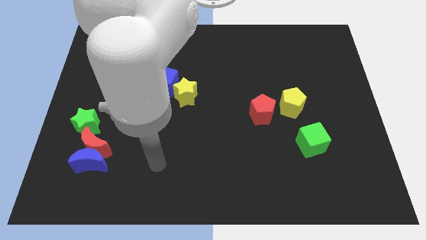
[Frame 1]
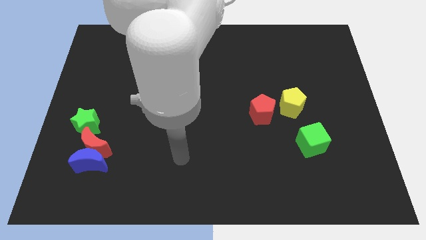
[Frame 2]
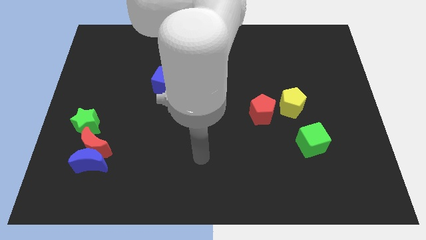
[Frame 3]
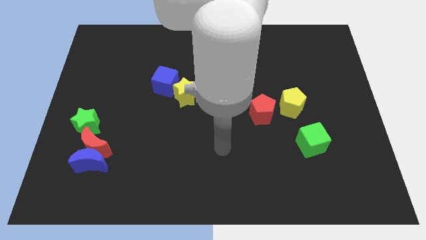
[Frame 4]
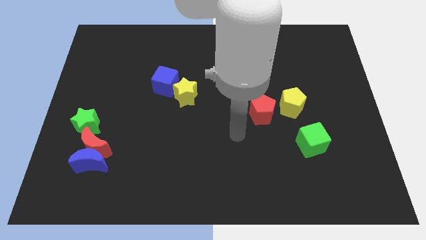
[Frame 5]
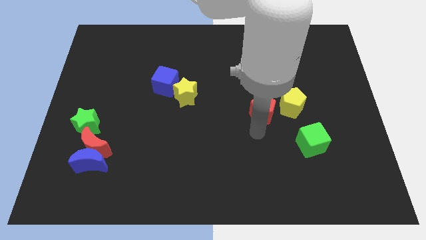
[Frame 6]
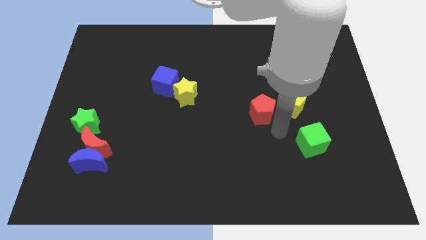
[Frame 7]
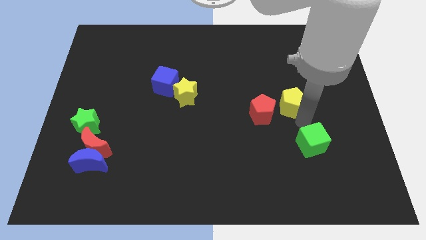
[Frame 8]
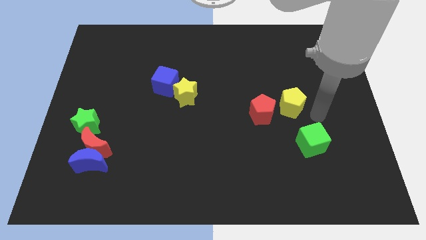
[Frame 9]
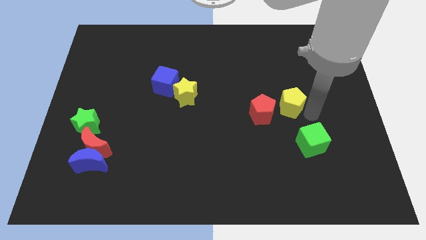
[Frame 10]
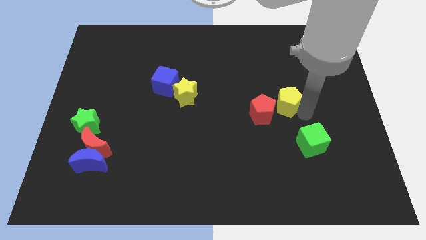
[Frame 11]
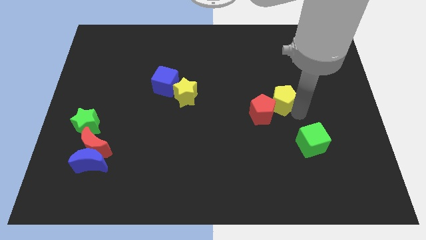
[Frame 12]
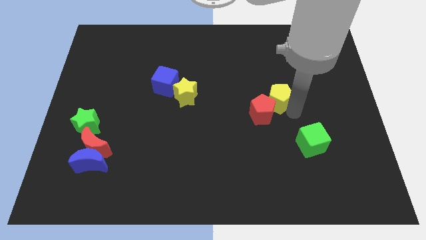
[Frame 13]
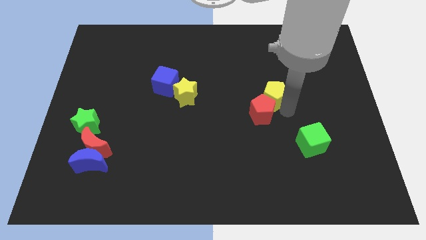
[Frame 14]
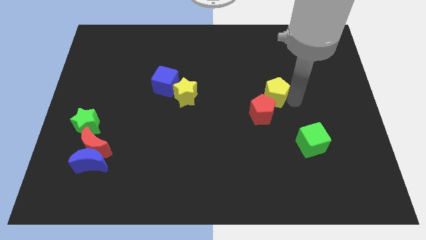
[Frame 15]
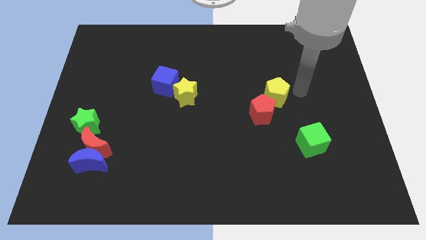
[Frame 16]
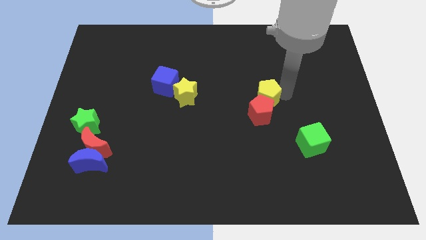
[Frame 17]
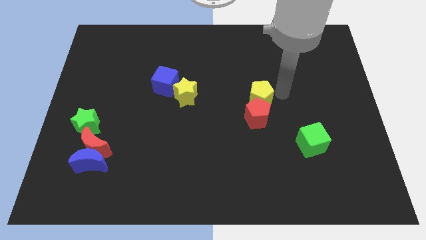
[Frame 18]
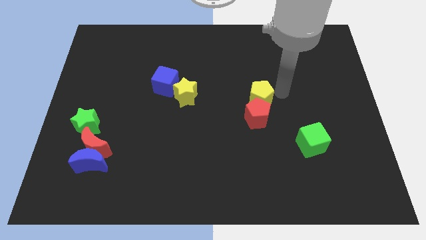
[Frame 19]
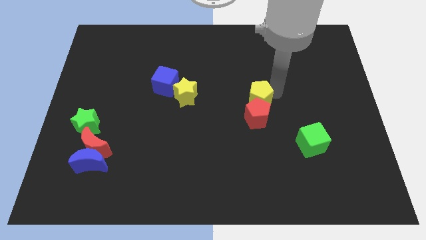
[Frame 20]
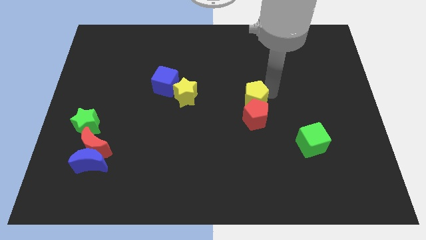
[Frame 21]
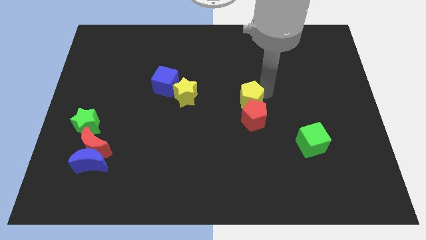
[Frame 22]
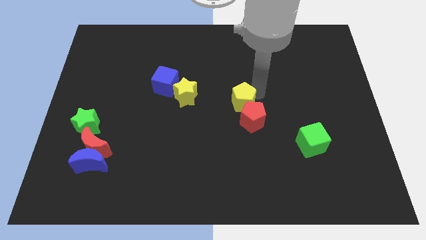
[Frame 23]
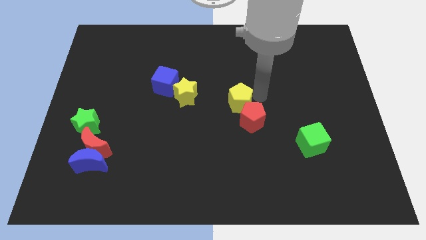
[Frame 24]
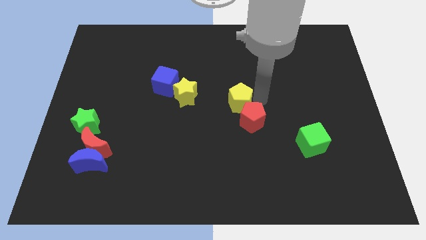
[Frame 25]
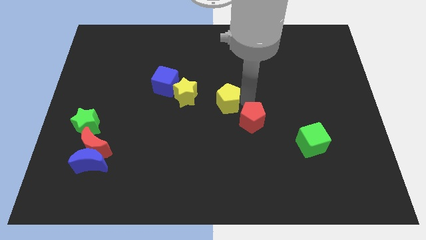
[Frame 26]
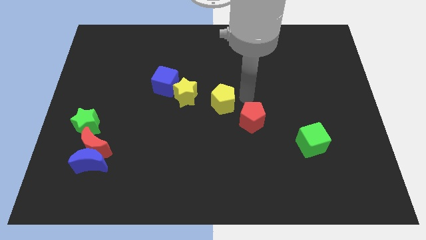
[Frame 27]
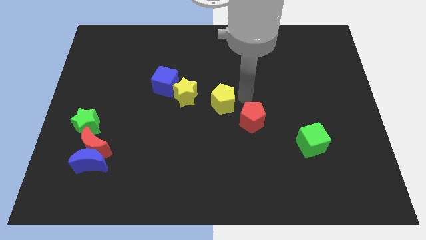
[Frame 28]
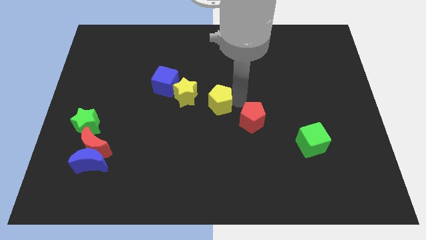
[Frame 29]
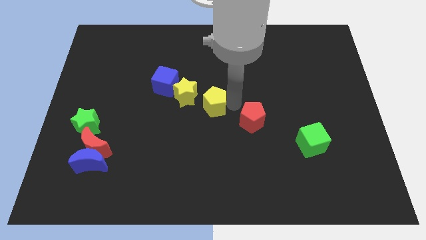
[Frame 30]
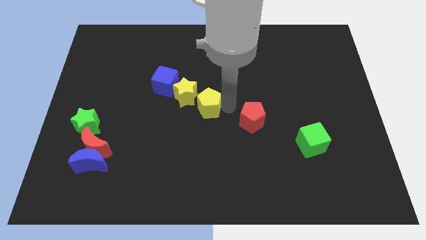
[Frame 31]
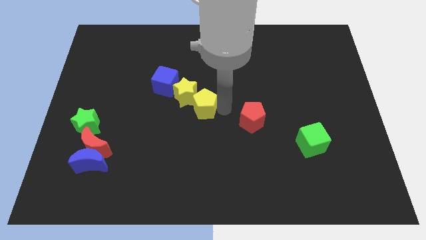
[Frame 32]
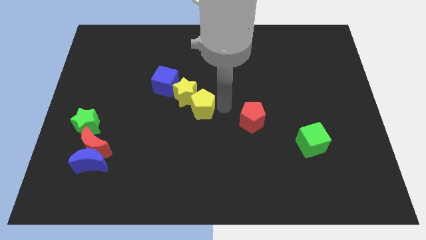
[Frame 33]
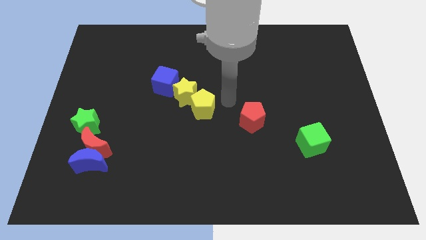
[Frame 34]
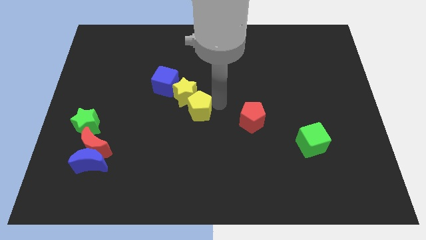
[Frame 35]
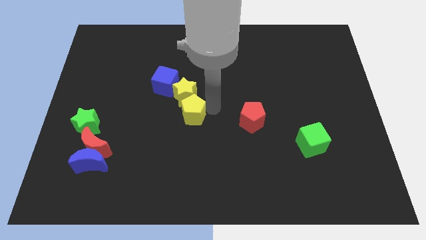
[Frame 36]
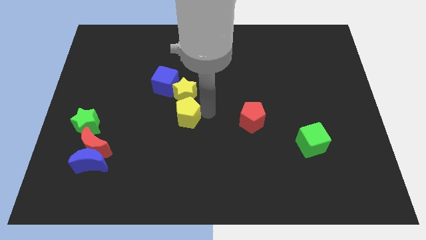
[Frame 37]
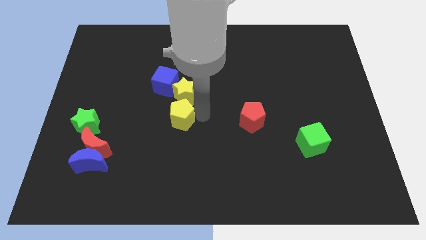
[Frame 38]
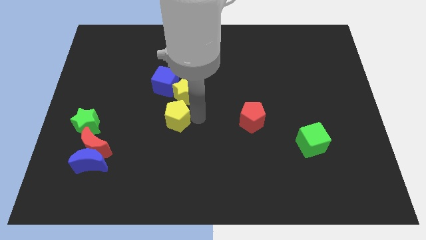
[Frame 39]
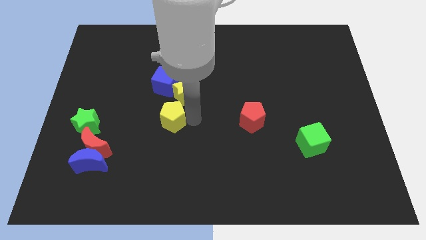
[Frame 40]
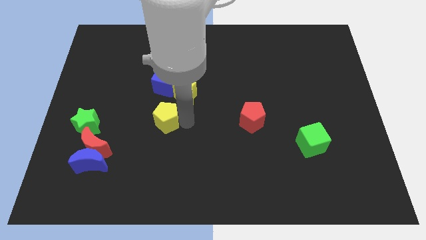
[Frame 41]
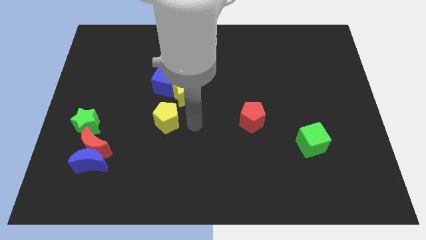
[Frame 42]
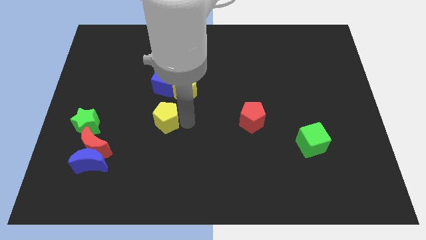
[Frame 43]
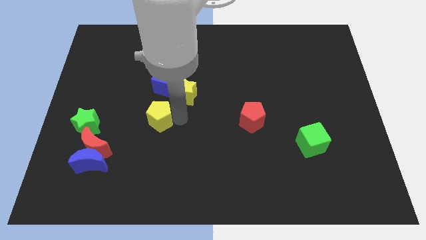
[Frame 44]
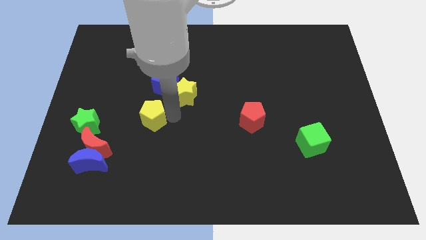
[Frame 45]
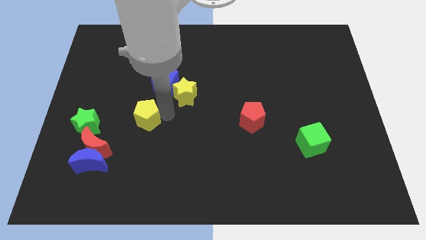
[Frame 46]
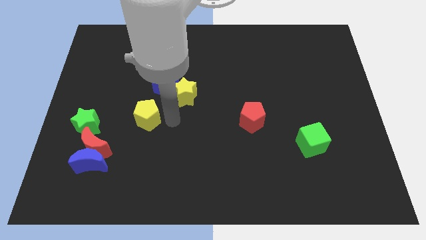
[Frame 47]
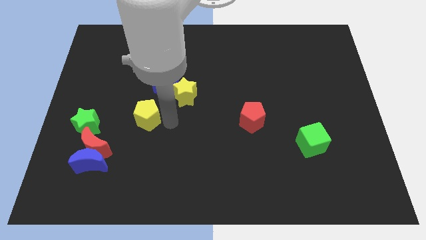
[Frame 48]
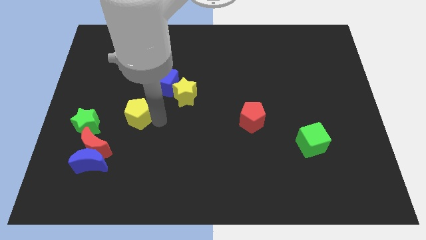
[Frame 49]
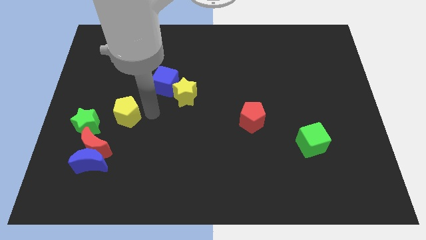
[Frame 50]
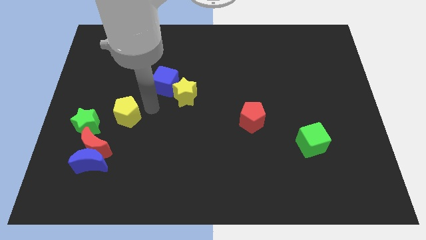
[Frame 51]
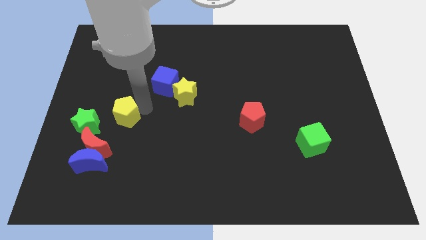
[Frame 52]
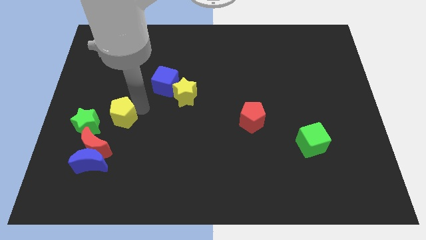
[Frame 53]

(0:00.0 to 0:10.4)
put the yellow pentagon to the top side of the blue moon

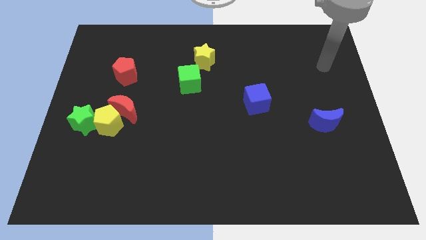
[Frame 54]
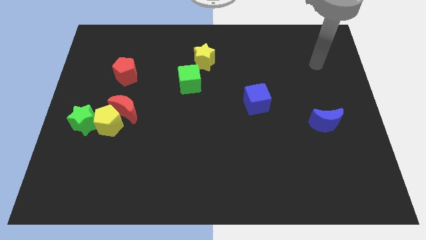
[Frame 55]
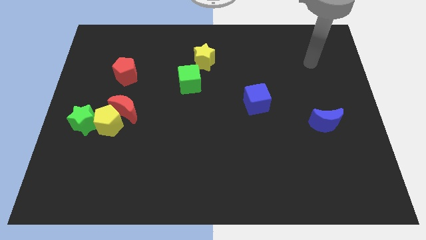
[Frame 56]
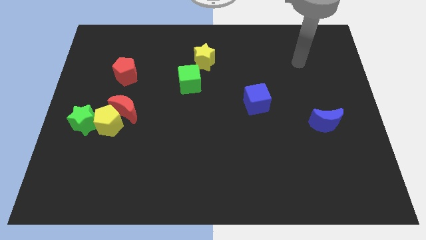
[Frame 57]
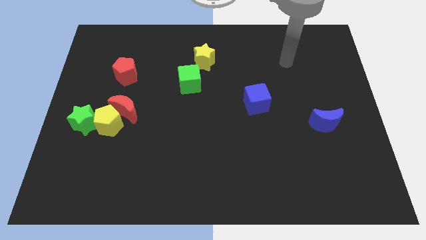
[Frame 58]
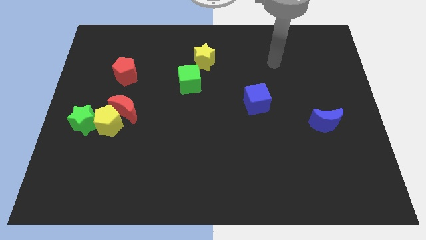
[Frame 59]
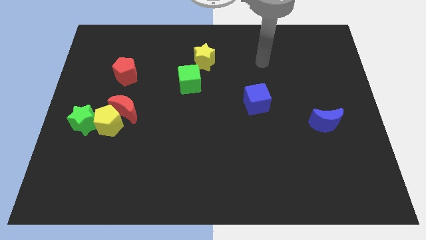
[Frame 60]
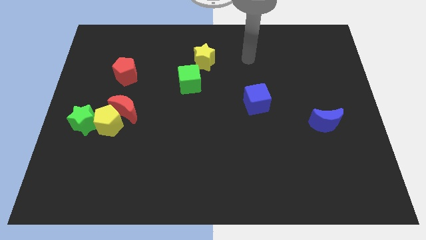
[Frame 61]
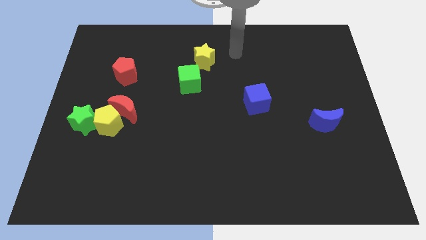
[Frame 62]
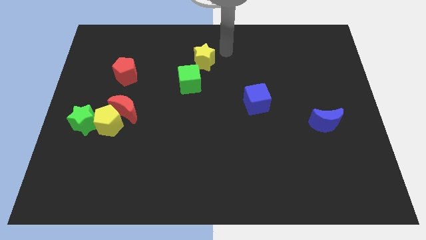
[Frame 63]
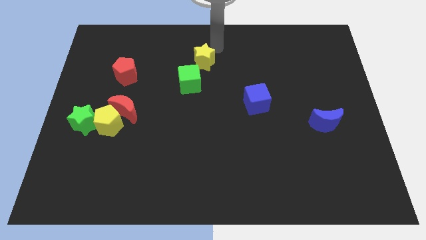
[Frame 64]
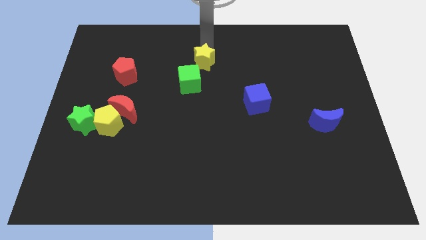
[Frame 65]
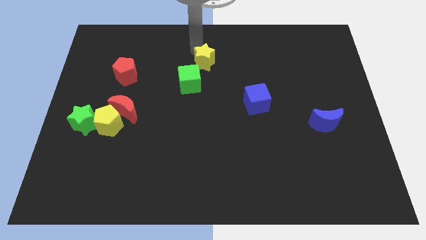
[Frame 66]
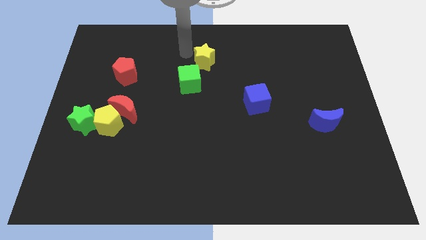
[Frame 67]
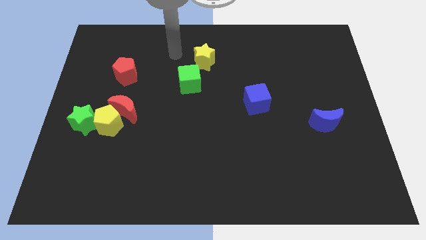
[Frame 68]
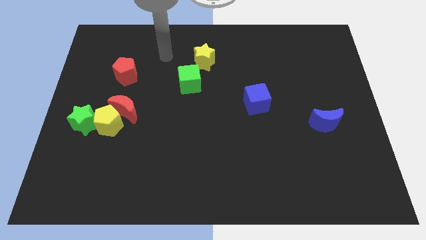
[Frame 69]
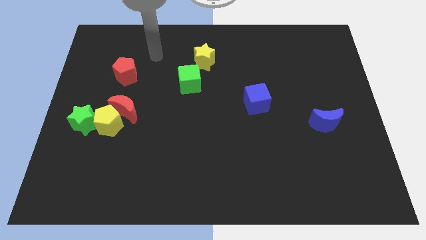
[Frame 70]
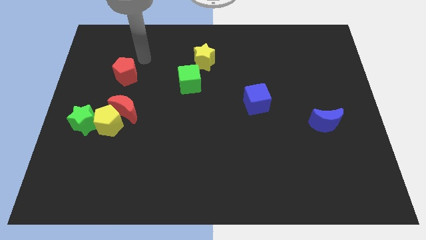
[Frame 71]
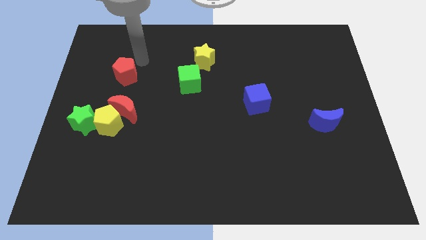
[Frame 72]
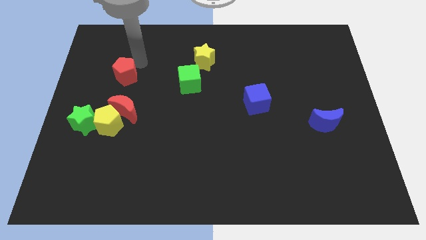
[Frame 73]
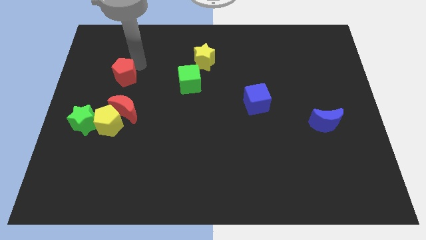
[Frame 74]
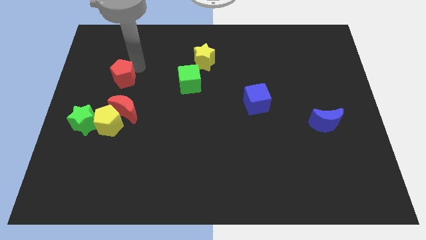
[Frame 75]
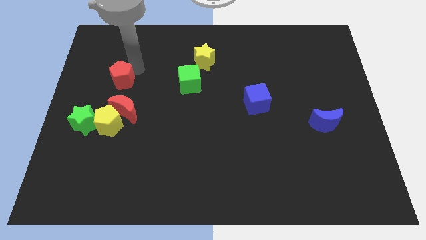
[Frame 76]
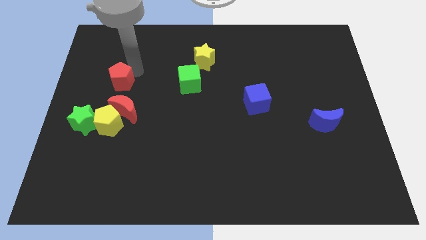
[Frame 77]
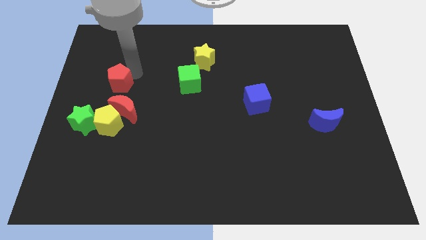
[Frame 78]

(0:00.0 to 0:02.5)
push the red pentagon diagonally up and to the left of the red moon
